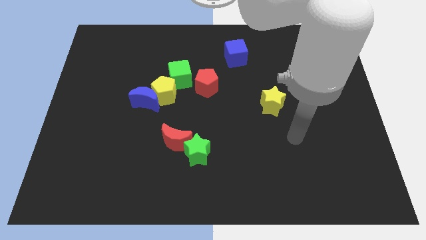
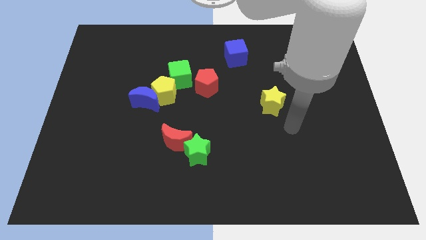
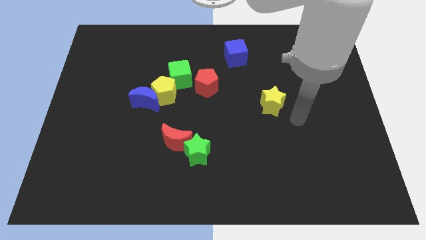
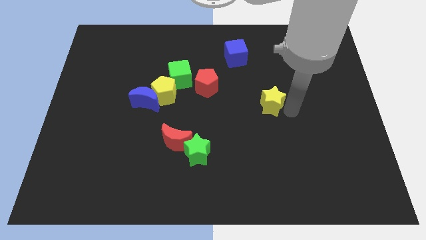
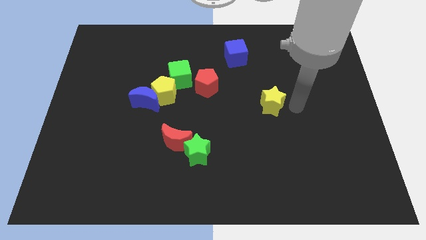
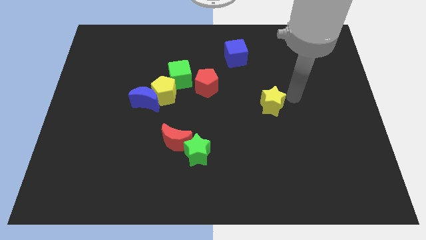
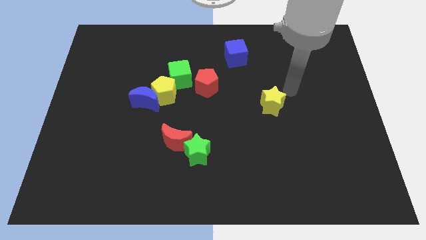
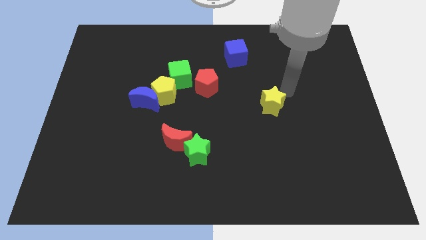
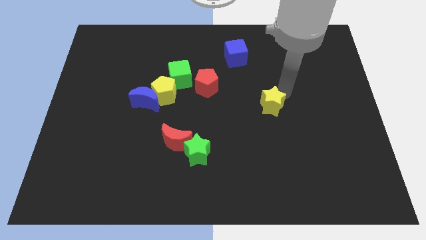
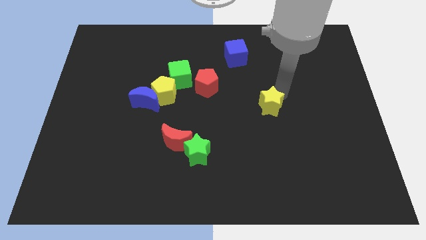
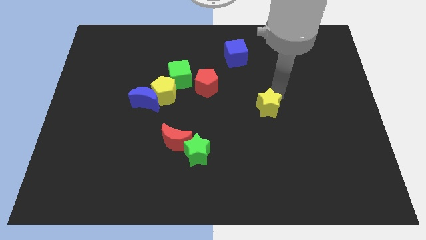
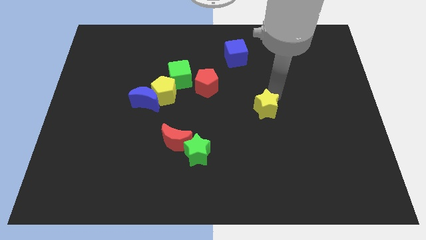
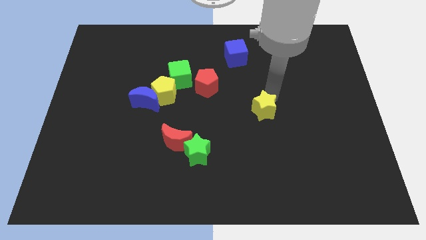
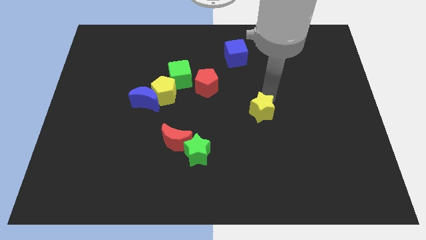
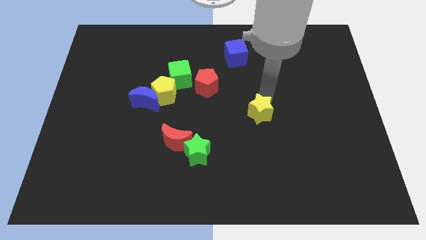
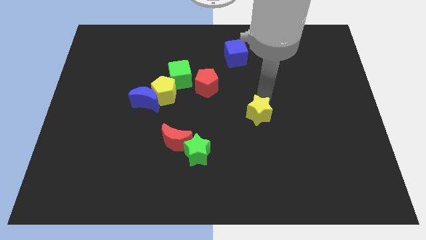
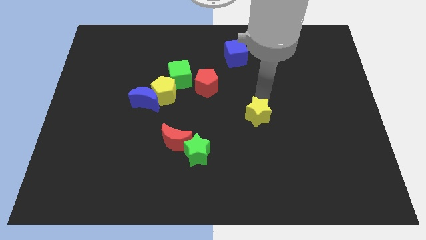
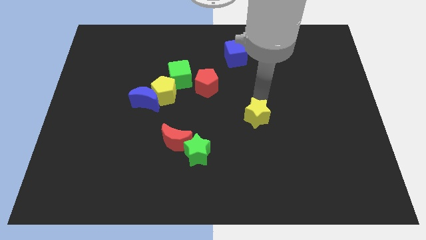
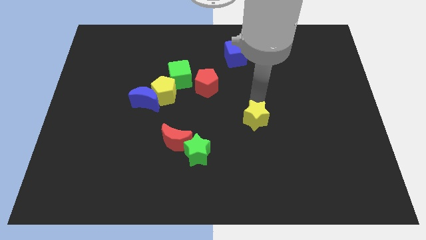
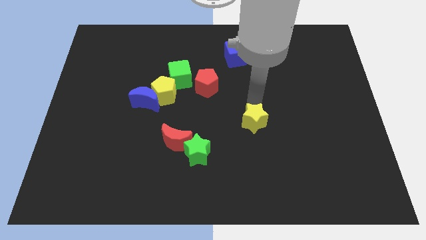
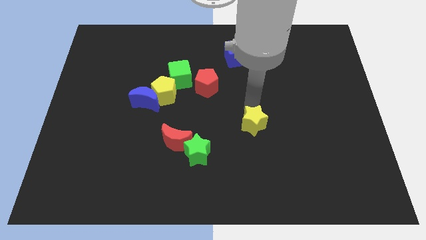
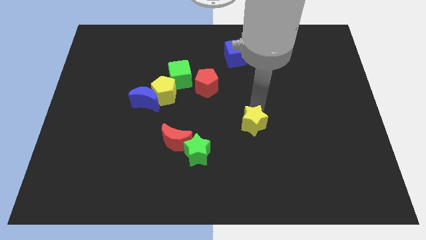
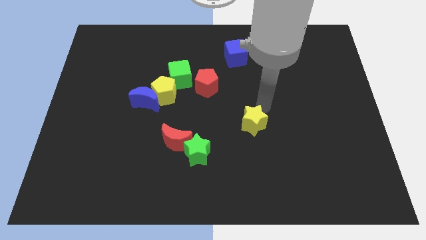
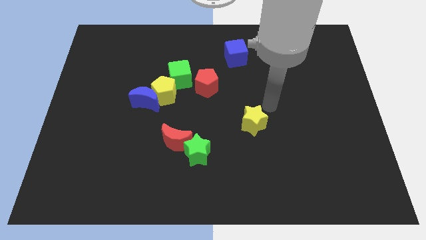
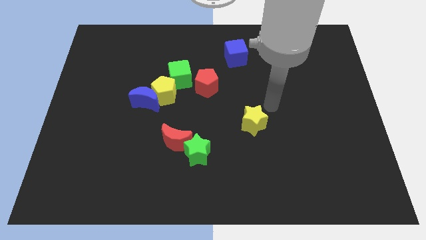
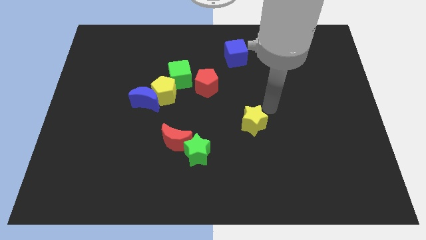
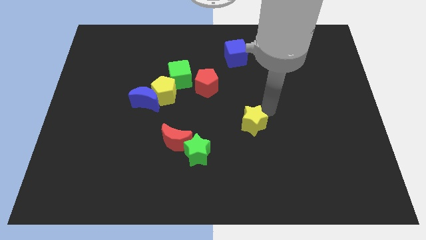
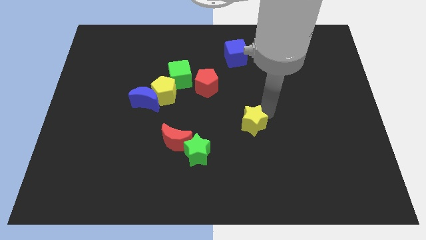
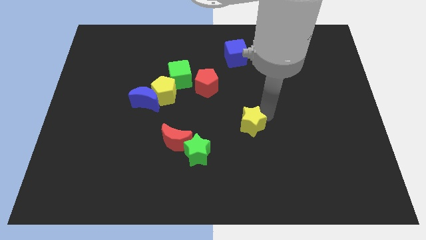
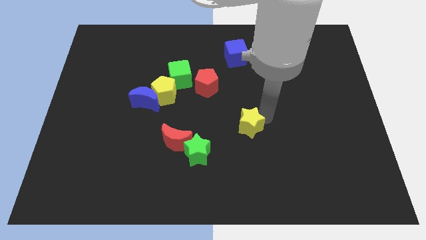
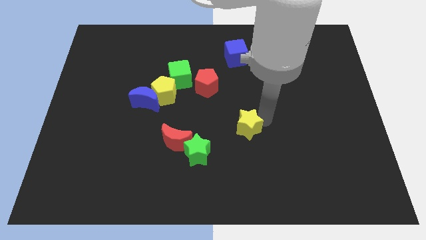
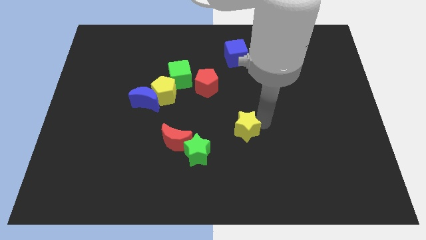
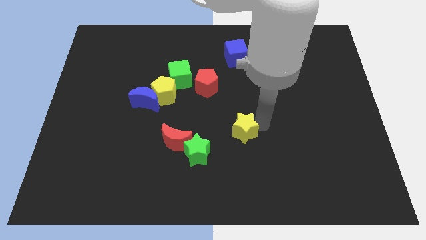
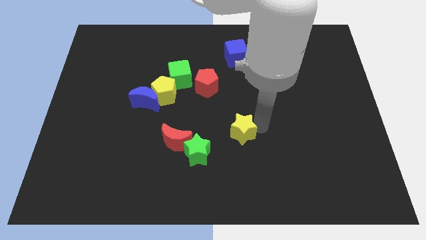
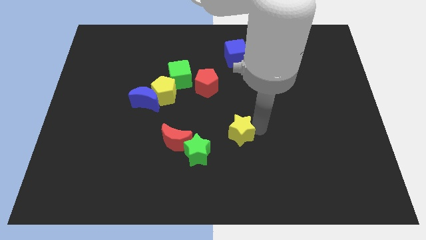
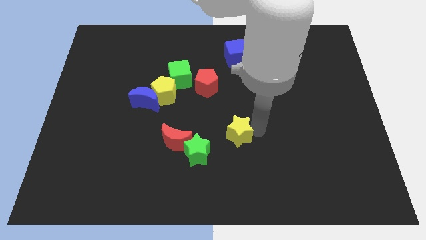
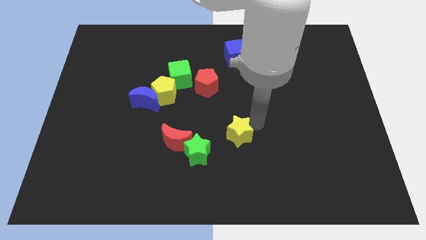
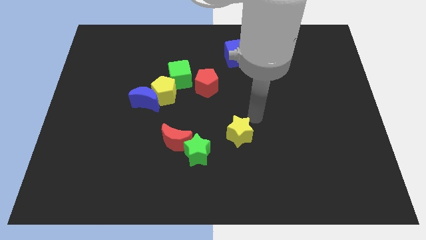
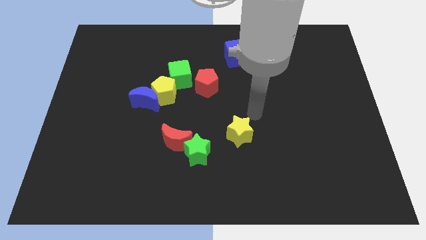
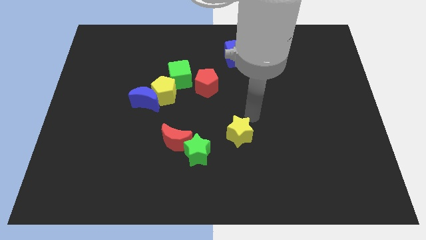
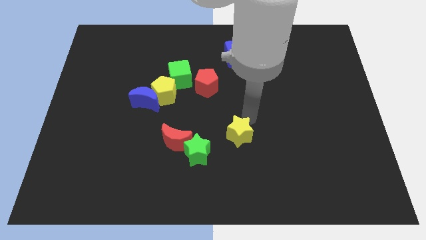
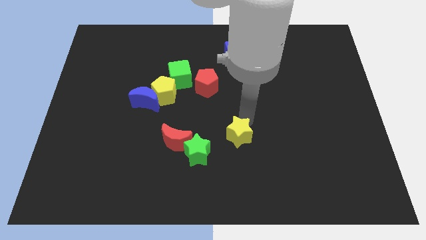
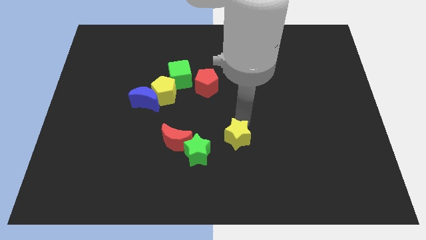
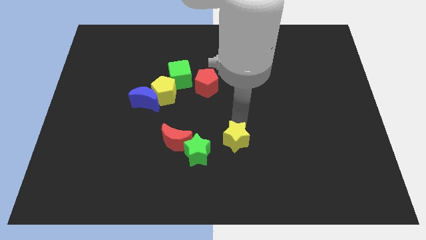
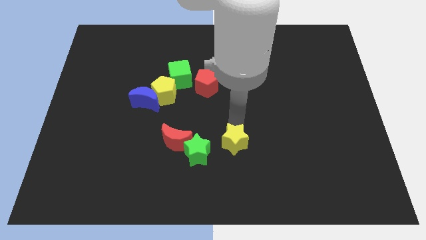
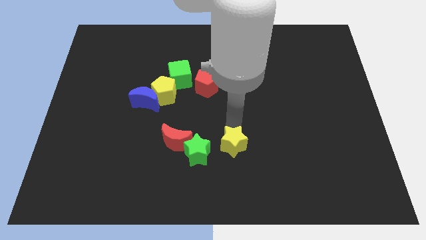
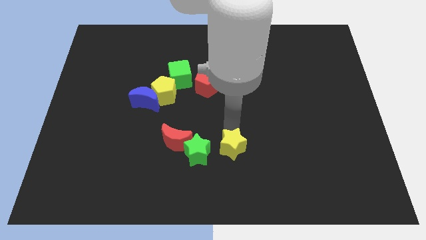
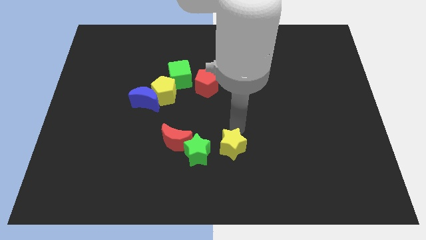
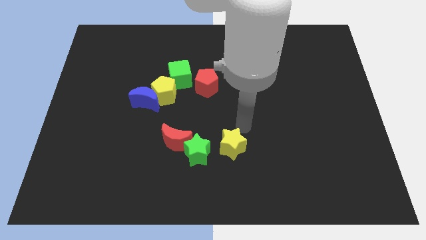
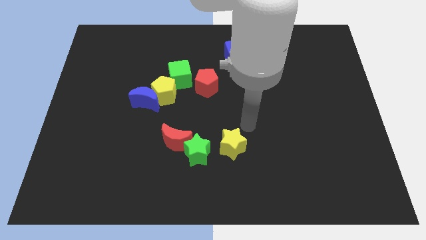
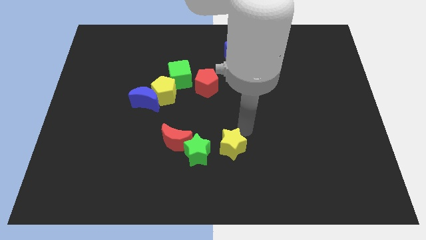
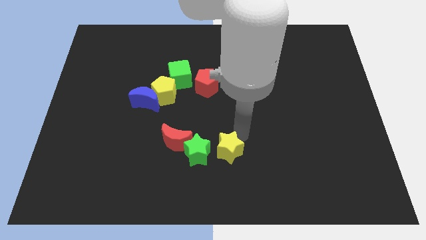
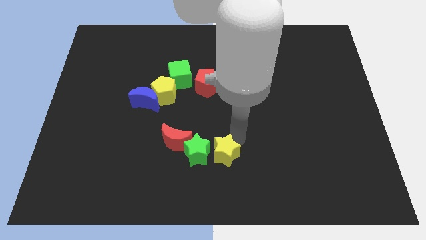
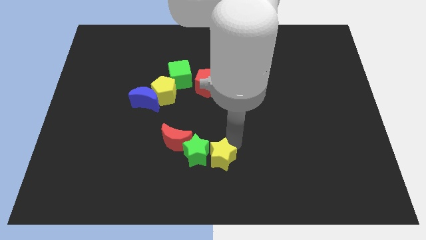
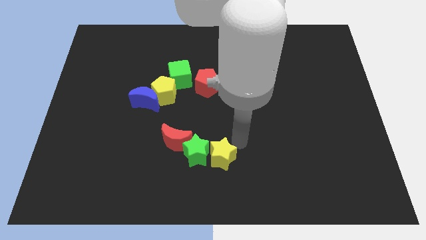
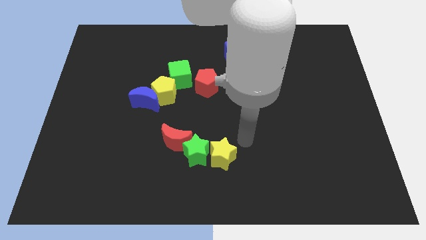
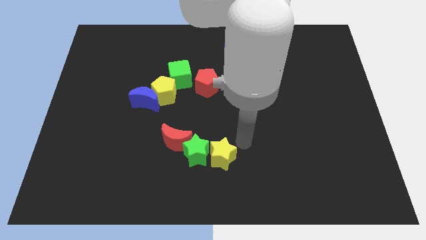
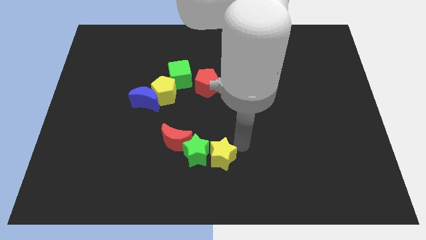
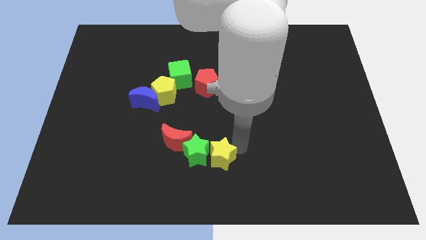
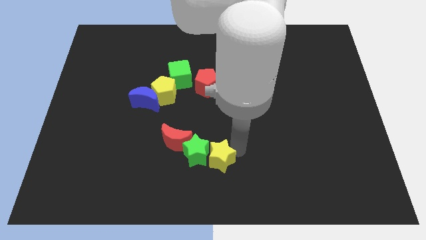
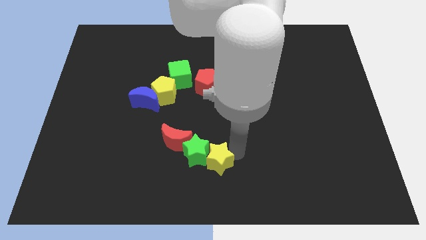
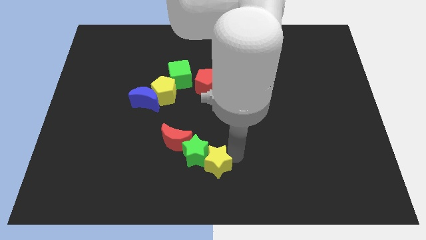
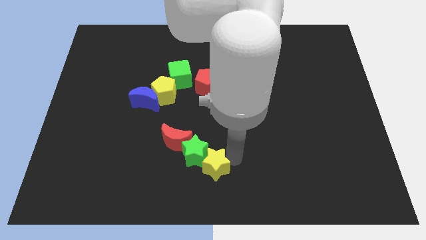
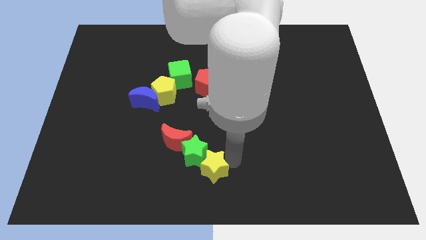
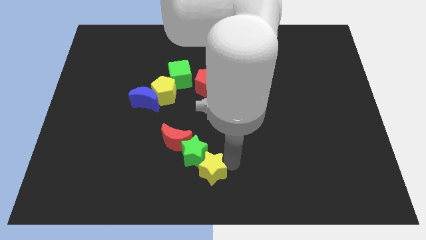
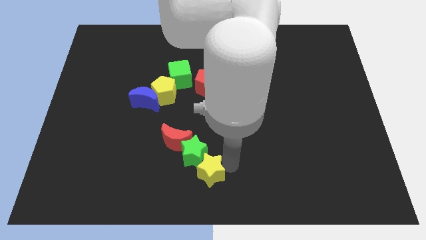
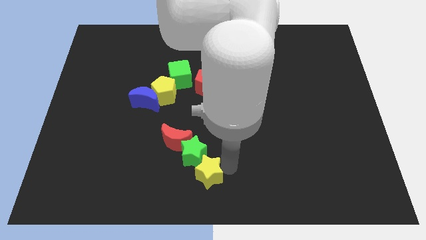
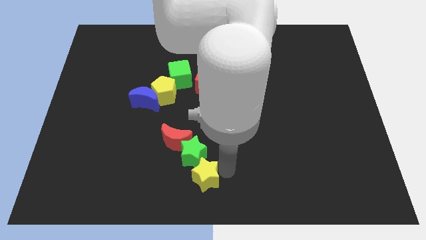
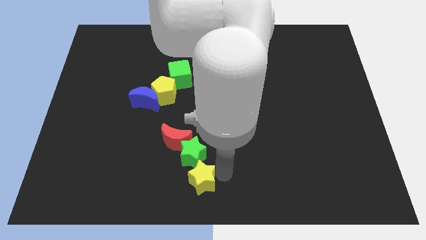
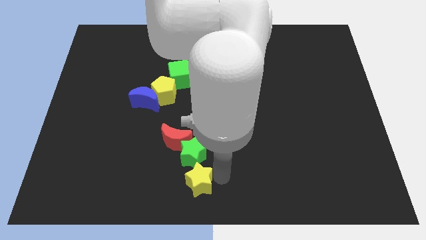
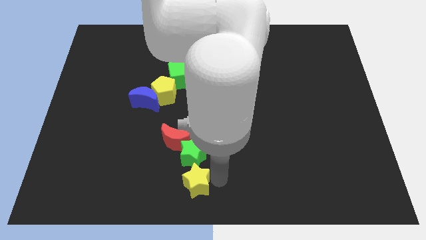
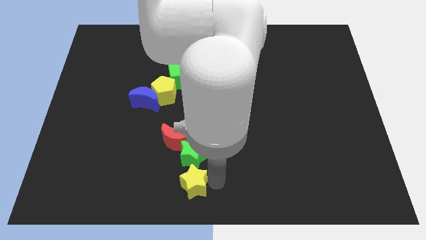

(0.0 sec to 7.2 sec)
push the yellow star to the bottom left side of the green star
